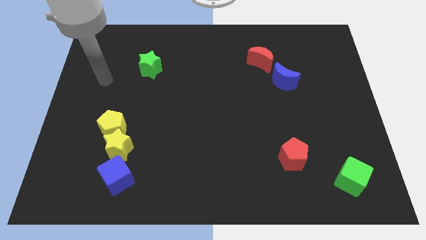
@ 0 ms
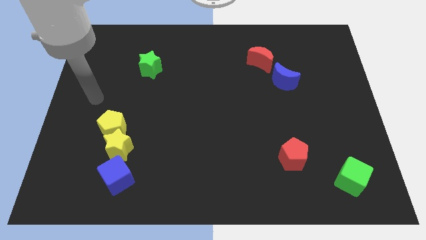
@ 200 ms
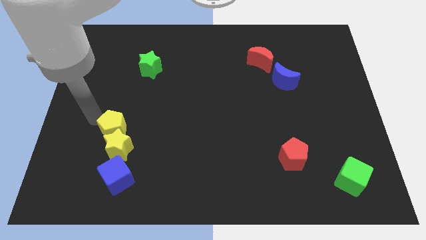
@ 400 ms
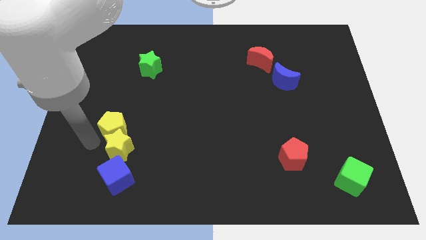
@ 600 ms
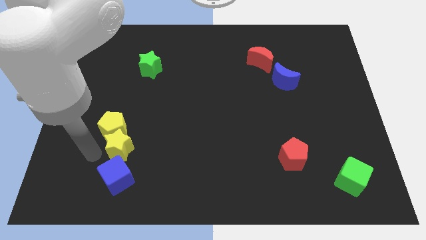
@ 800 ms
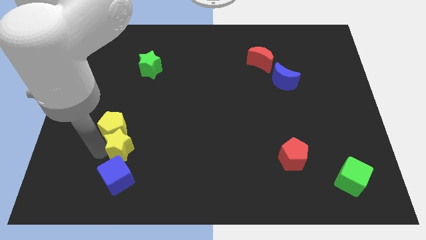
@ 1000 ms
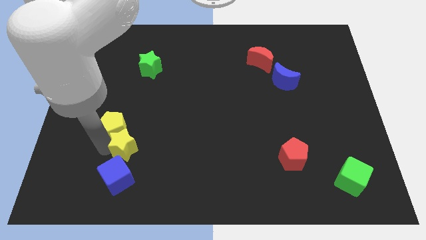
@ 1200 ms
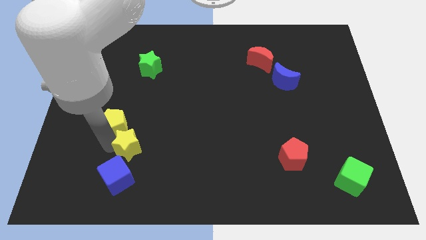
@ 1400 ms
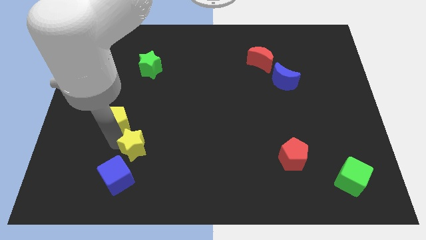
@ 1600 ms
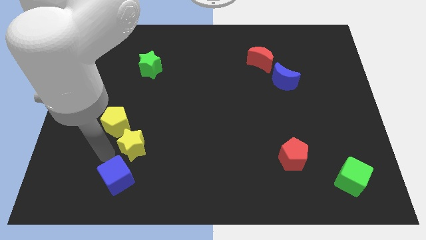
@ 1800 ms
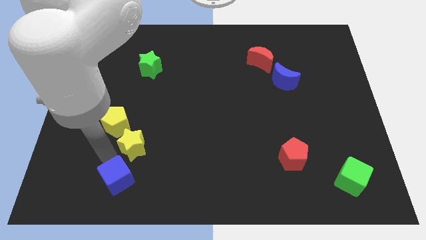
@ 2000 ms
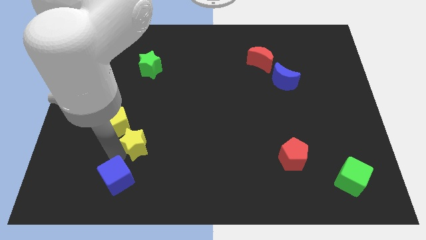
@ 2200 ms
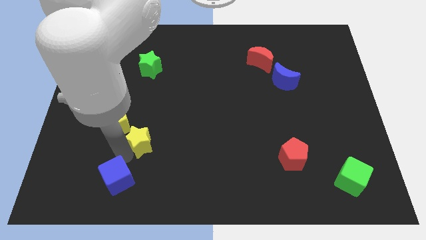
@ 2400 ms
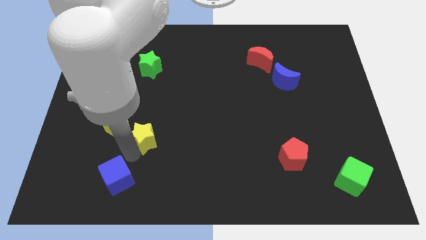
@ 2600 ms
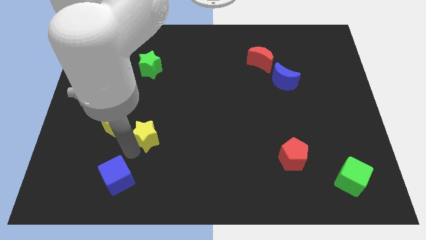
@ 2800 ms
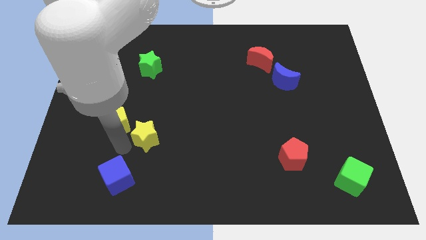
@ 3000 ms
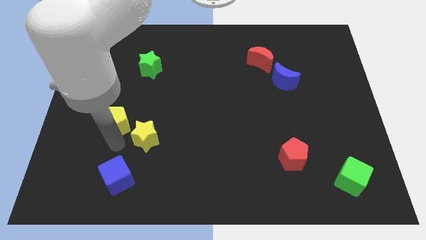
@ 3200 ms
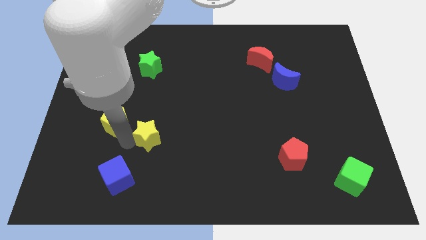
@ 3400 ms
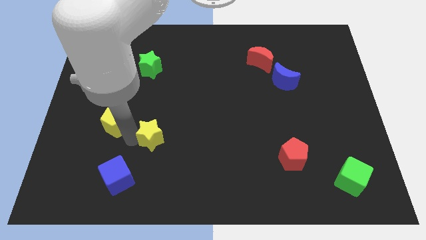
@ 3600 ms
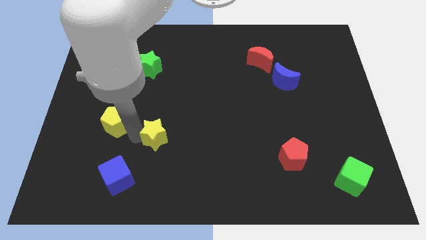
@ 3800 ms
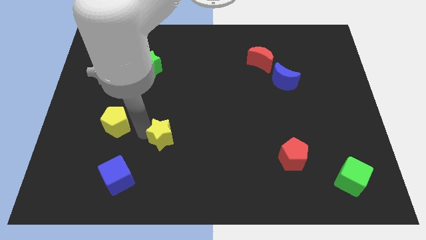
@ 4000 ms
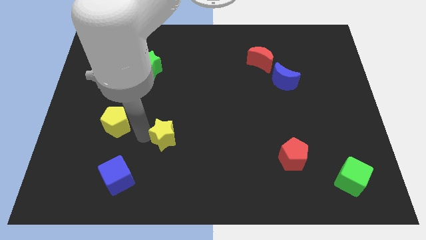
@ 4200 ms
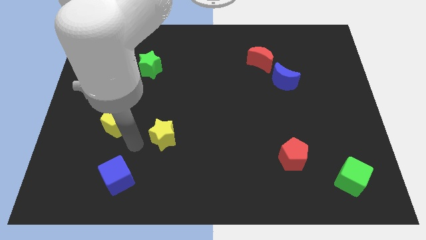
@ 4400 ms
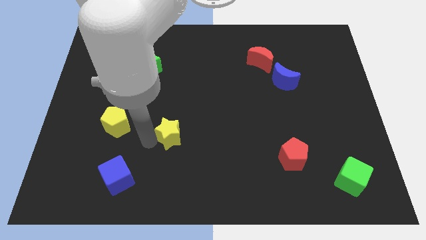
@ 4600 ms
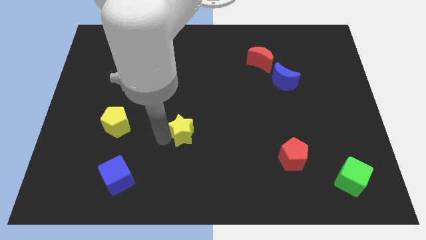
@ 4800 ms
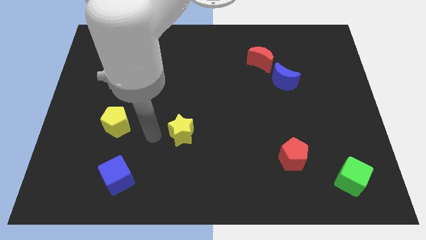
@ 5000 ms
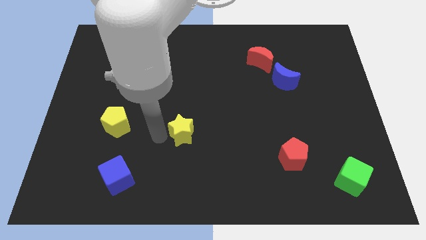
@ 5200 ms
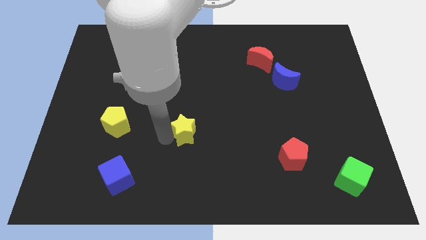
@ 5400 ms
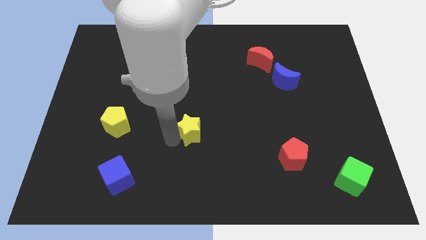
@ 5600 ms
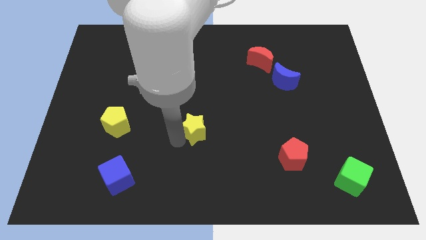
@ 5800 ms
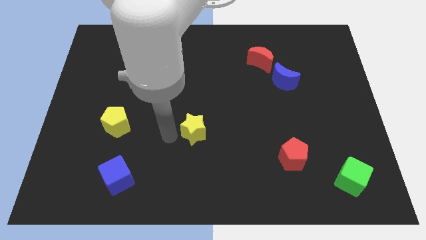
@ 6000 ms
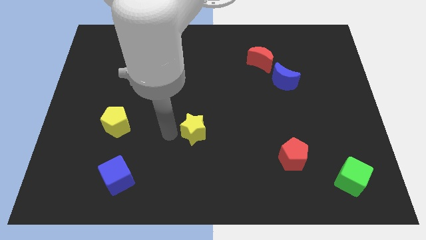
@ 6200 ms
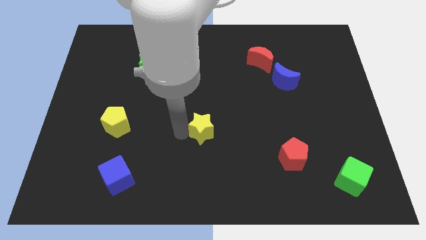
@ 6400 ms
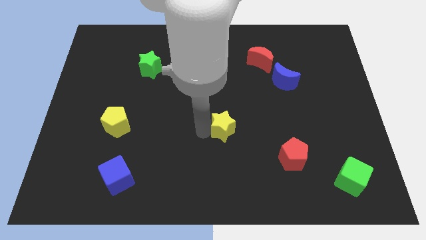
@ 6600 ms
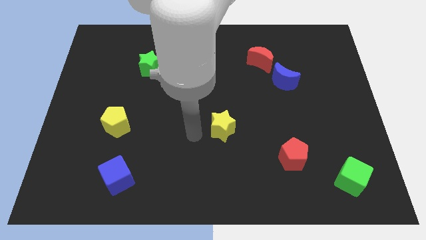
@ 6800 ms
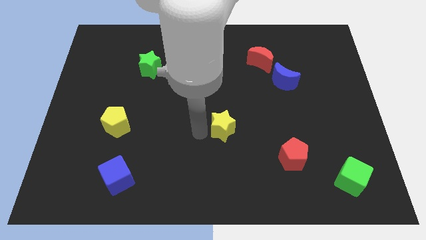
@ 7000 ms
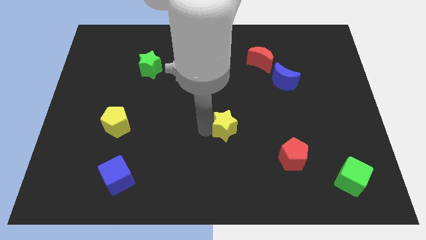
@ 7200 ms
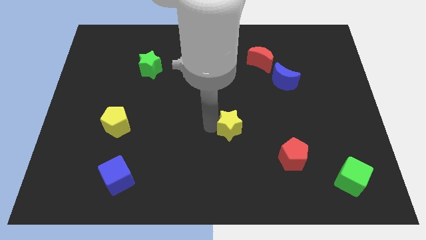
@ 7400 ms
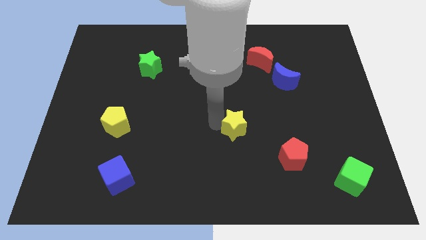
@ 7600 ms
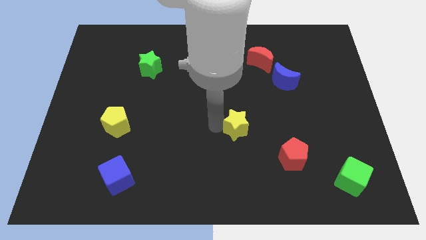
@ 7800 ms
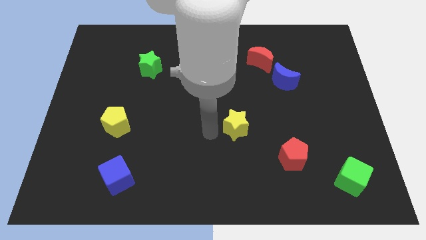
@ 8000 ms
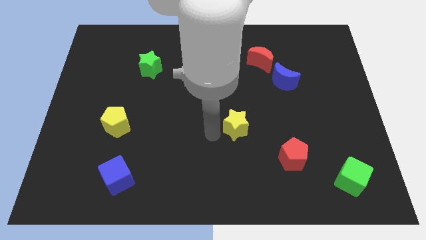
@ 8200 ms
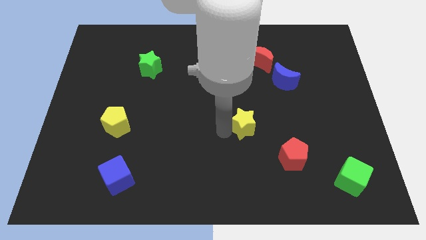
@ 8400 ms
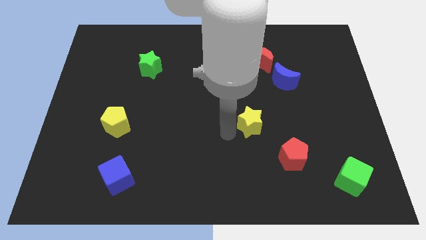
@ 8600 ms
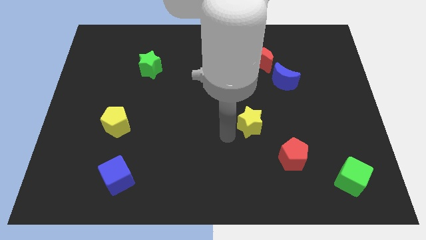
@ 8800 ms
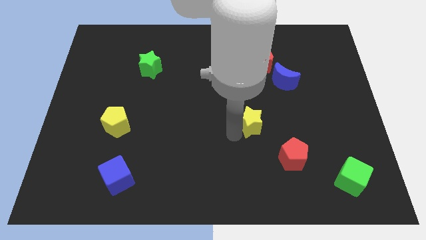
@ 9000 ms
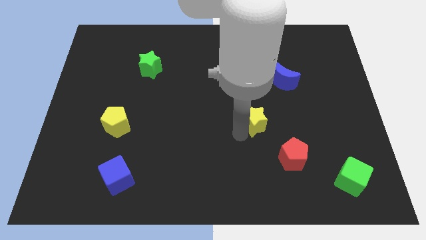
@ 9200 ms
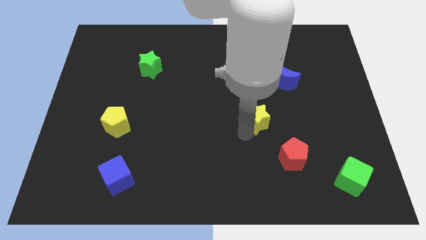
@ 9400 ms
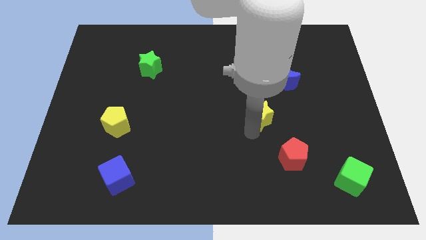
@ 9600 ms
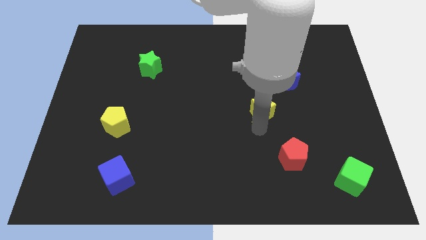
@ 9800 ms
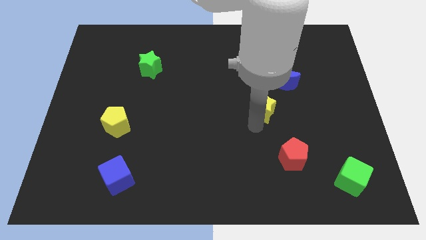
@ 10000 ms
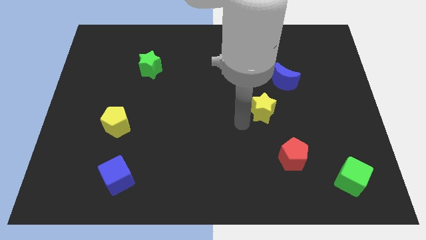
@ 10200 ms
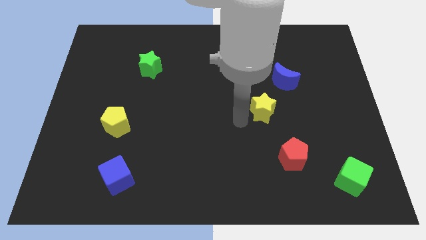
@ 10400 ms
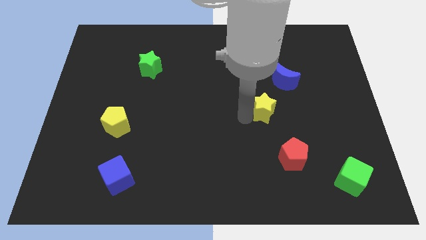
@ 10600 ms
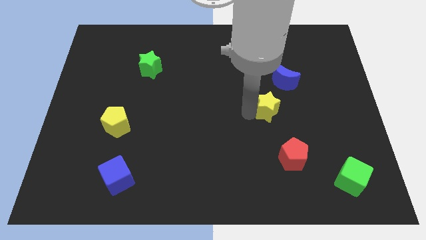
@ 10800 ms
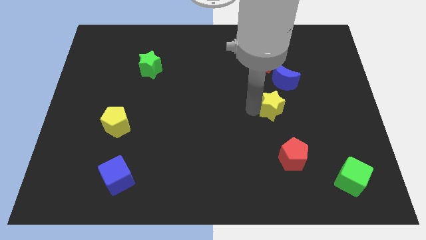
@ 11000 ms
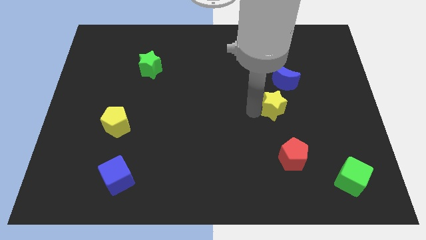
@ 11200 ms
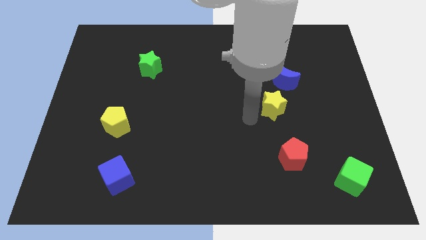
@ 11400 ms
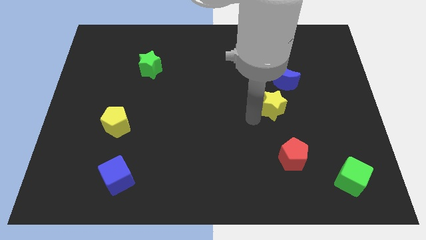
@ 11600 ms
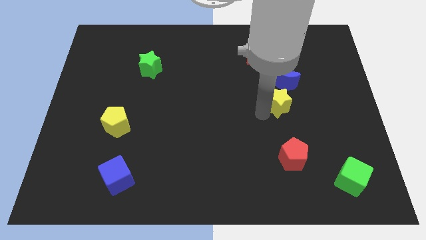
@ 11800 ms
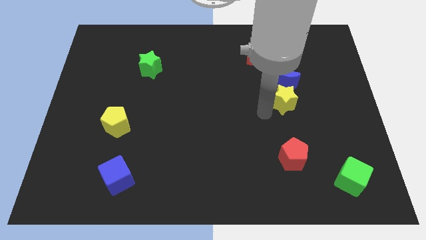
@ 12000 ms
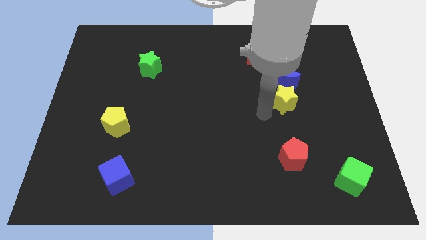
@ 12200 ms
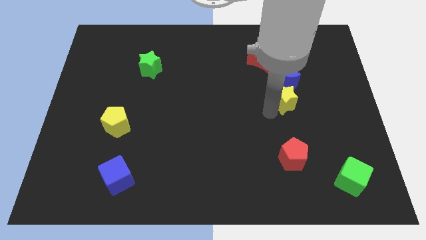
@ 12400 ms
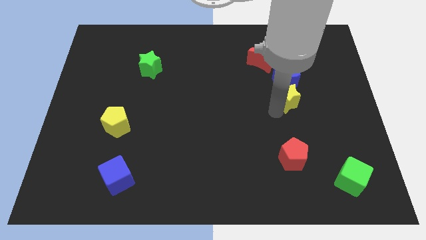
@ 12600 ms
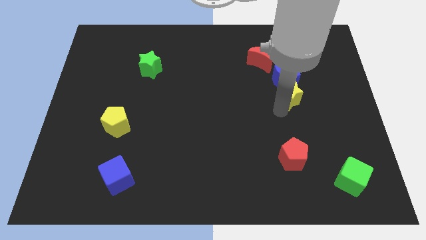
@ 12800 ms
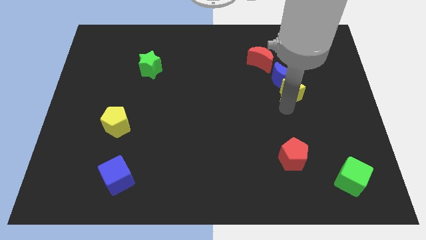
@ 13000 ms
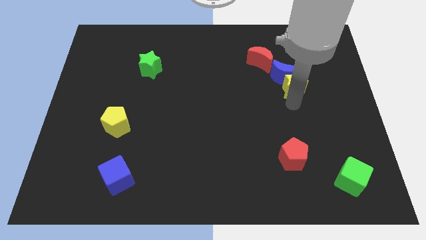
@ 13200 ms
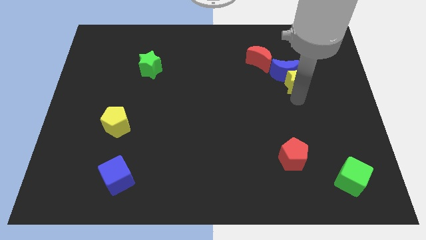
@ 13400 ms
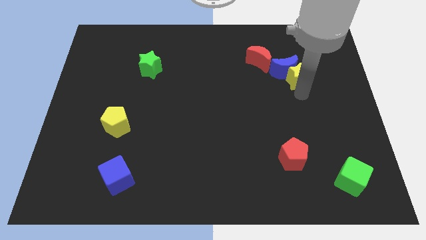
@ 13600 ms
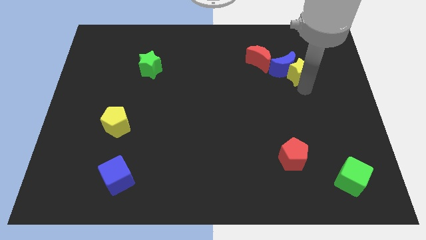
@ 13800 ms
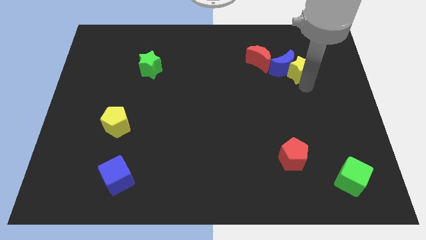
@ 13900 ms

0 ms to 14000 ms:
push the yellow star to the top right of the blue moon
